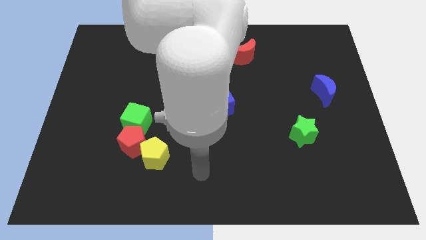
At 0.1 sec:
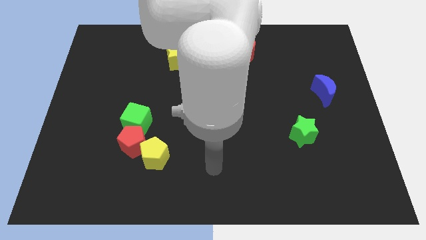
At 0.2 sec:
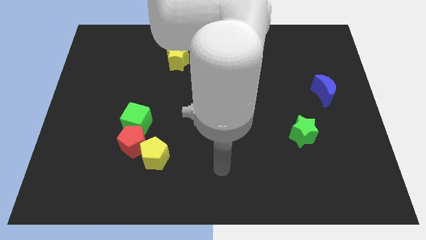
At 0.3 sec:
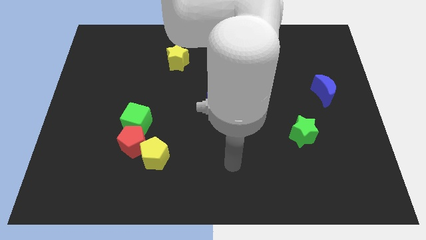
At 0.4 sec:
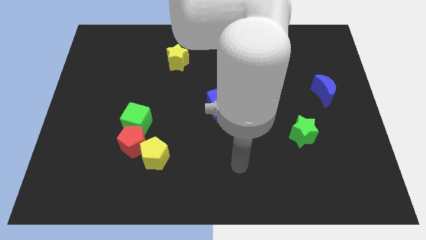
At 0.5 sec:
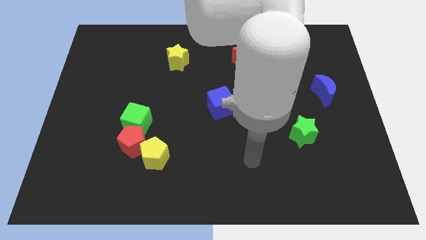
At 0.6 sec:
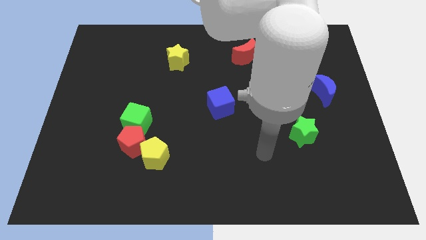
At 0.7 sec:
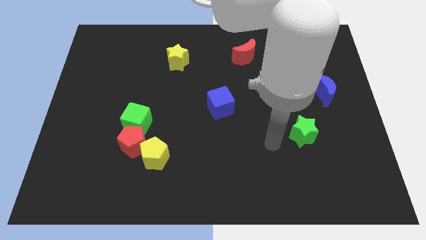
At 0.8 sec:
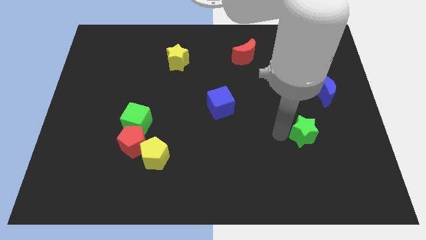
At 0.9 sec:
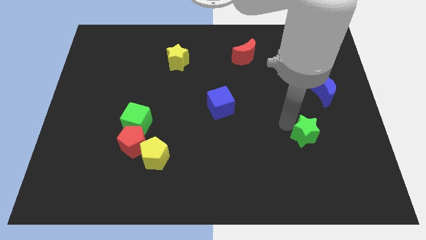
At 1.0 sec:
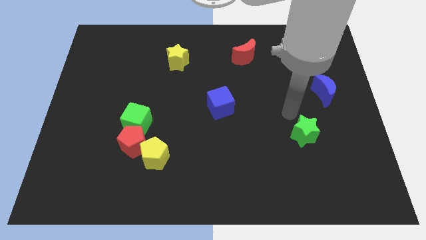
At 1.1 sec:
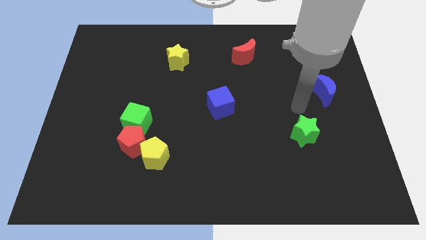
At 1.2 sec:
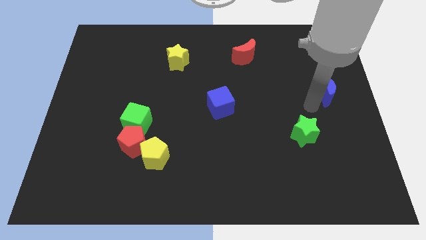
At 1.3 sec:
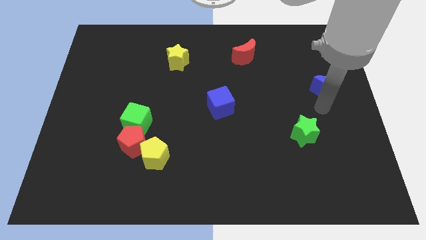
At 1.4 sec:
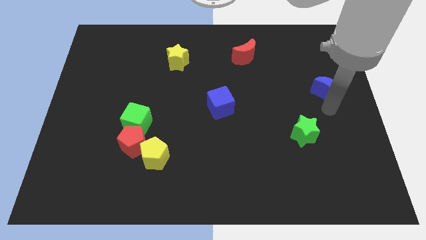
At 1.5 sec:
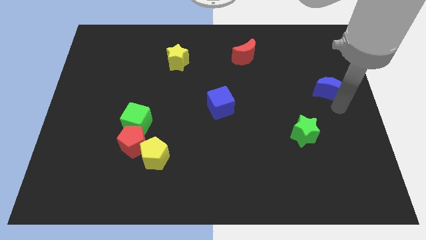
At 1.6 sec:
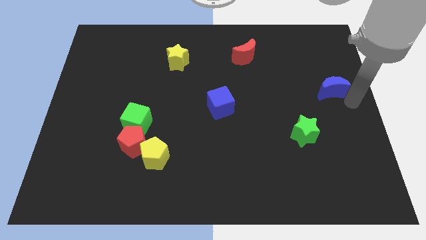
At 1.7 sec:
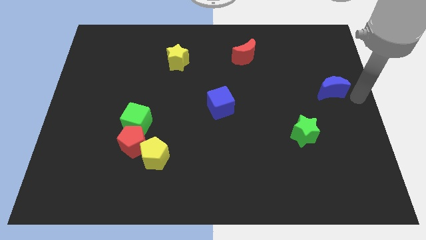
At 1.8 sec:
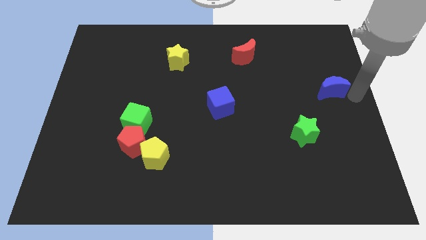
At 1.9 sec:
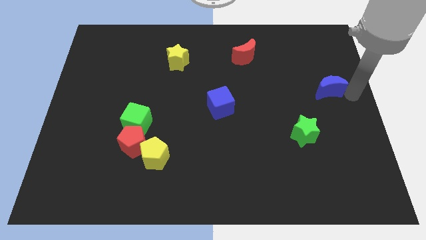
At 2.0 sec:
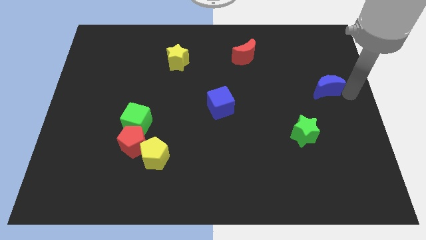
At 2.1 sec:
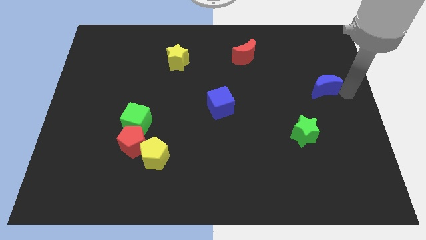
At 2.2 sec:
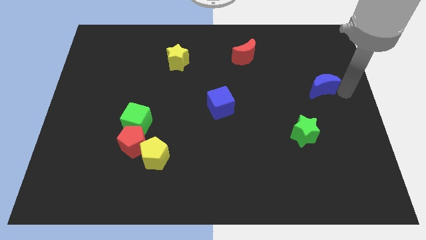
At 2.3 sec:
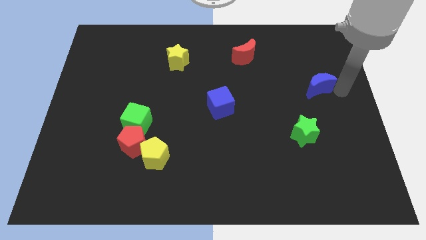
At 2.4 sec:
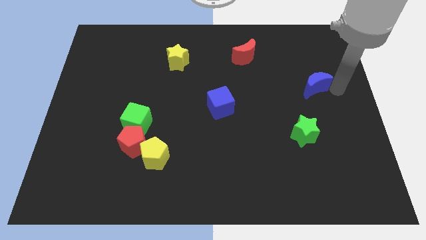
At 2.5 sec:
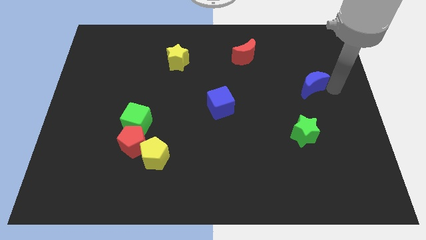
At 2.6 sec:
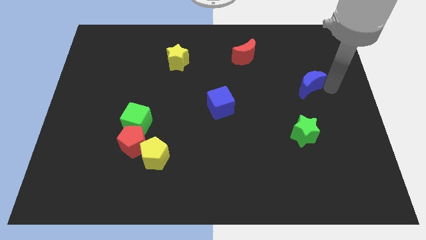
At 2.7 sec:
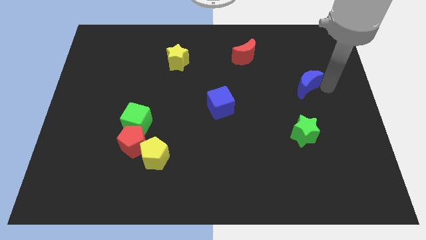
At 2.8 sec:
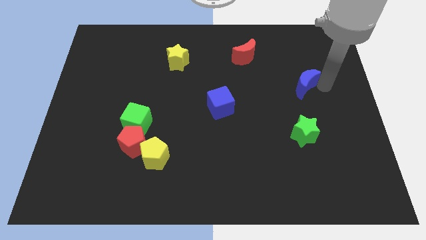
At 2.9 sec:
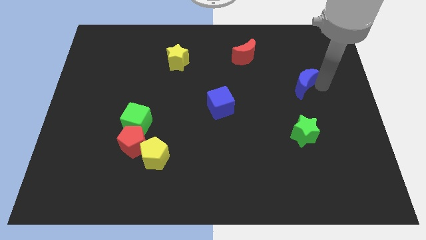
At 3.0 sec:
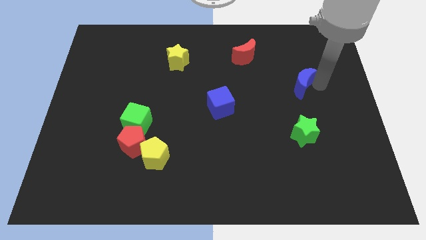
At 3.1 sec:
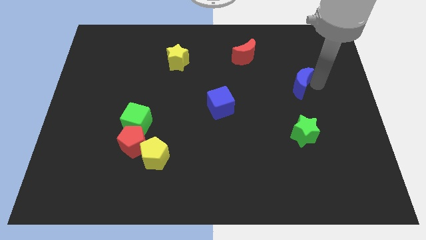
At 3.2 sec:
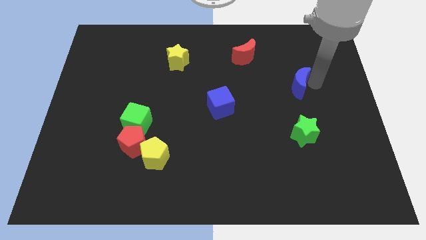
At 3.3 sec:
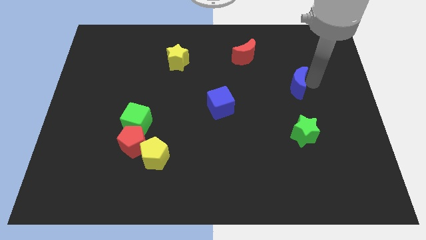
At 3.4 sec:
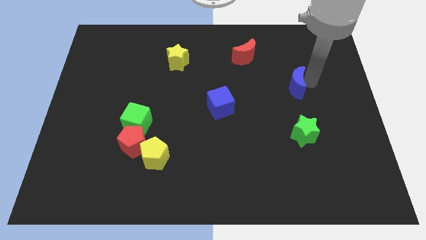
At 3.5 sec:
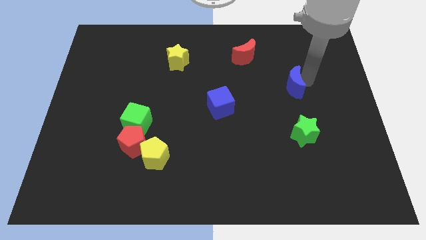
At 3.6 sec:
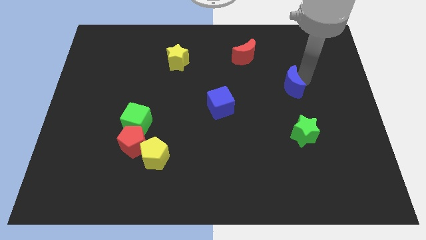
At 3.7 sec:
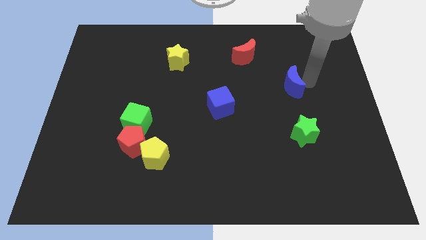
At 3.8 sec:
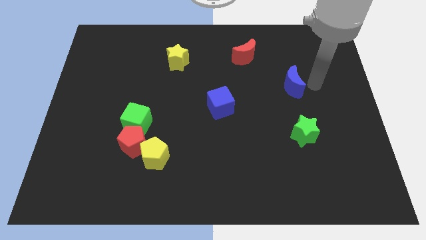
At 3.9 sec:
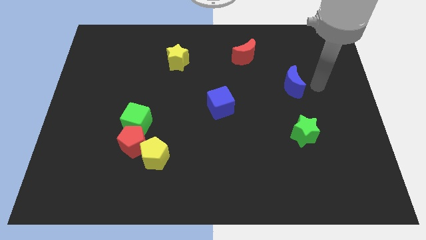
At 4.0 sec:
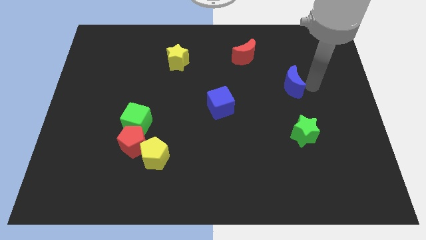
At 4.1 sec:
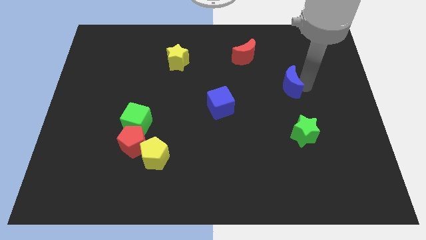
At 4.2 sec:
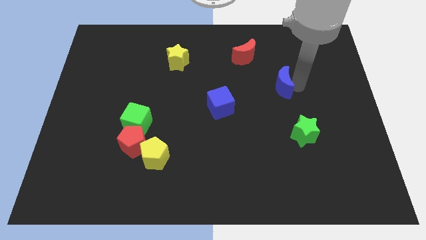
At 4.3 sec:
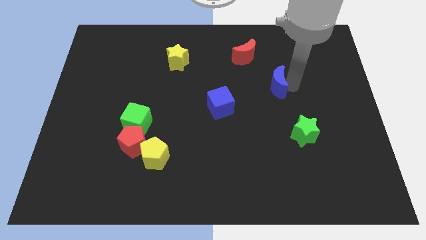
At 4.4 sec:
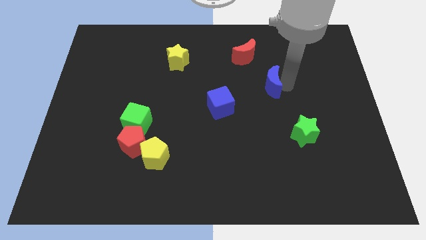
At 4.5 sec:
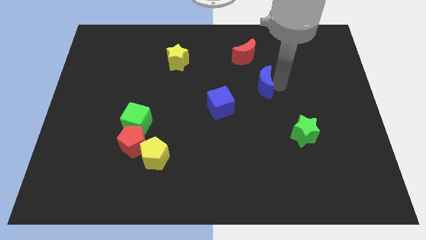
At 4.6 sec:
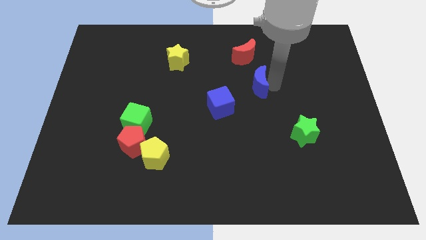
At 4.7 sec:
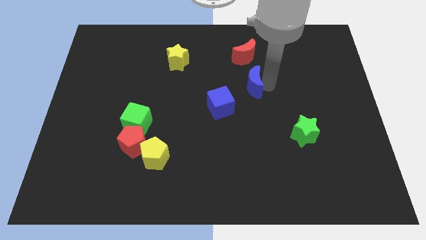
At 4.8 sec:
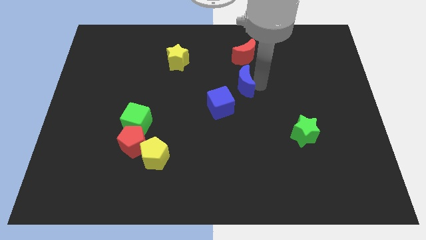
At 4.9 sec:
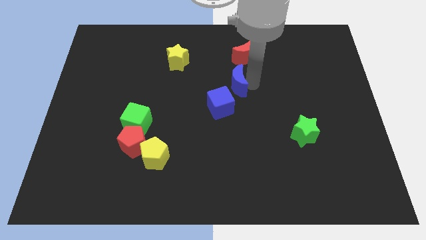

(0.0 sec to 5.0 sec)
move the blue moon to the left

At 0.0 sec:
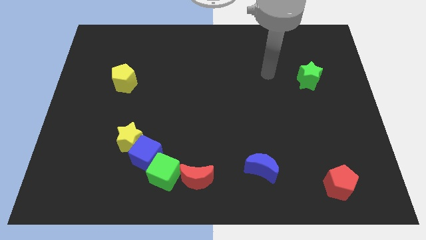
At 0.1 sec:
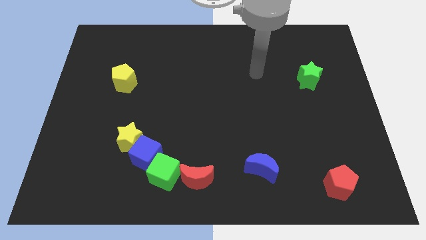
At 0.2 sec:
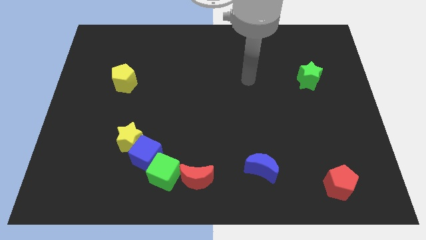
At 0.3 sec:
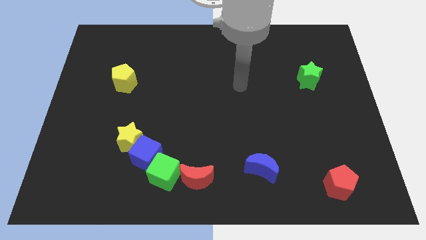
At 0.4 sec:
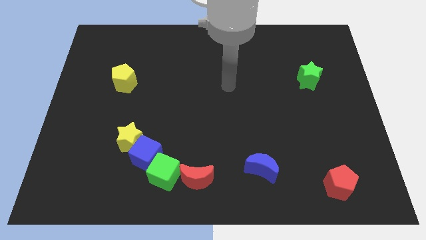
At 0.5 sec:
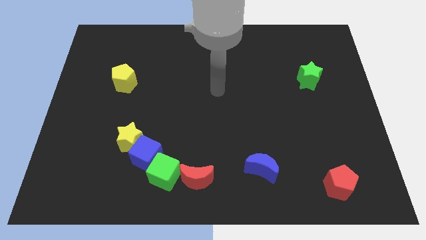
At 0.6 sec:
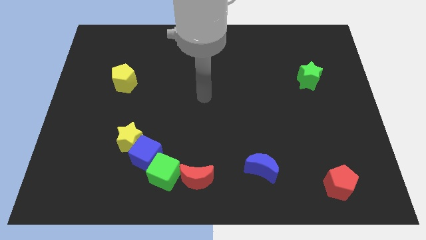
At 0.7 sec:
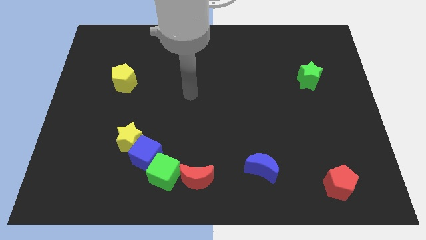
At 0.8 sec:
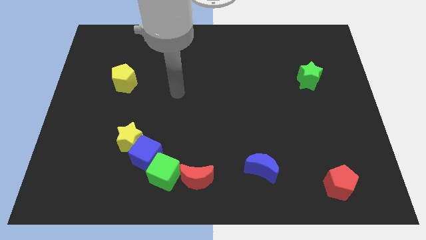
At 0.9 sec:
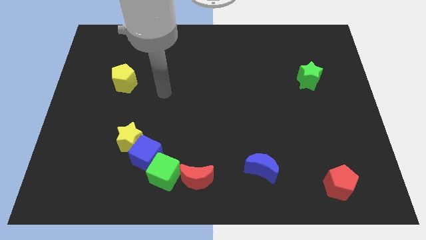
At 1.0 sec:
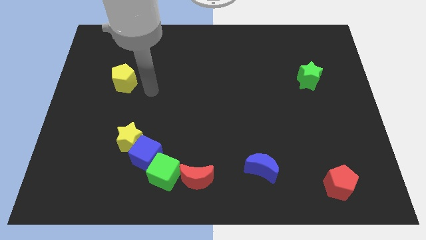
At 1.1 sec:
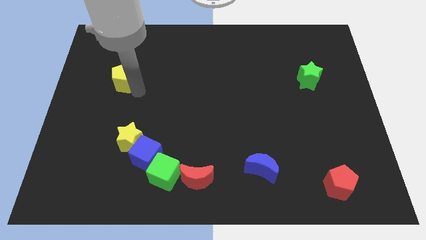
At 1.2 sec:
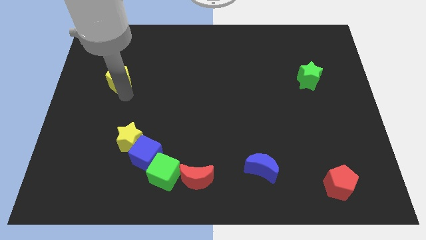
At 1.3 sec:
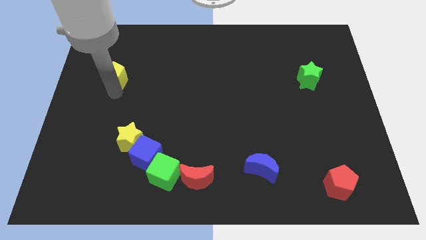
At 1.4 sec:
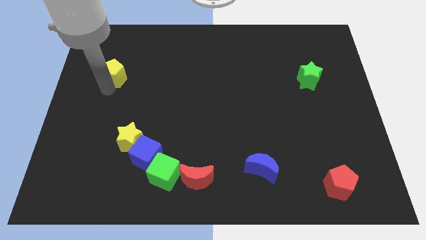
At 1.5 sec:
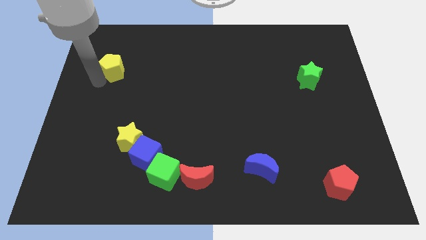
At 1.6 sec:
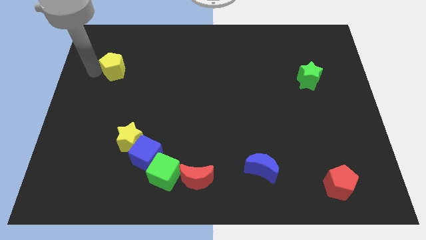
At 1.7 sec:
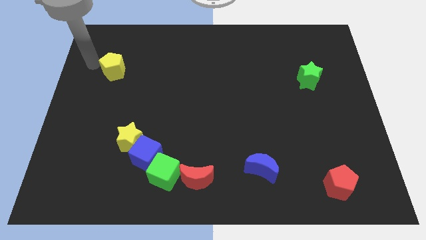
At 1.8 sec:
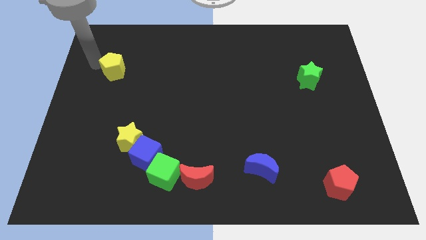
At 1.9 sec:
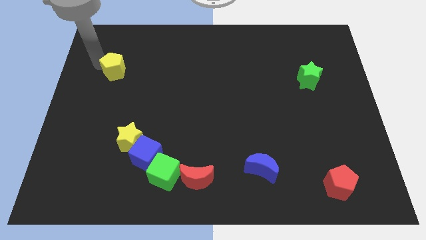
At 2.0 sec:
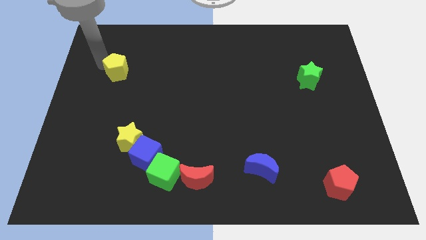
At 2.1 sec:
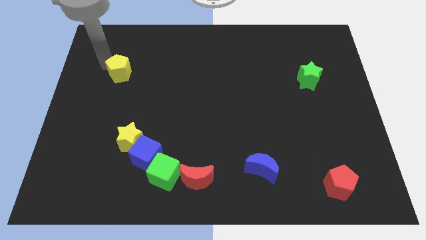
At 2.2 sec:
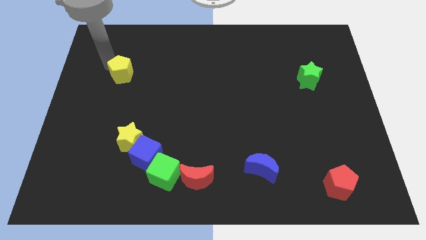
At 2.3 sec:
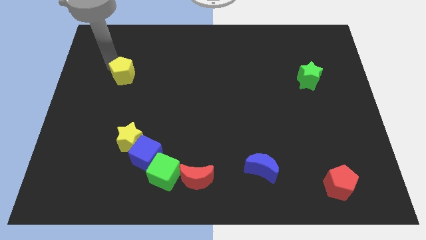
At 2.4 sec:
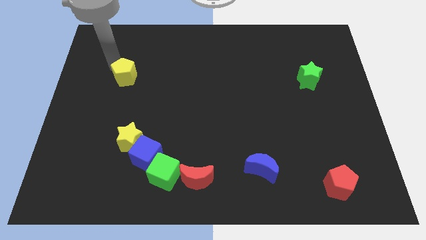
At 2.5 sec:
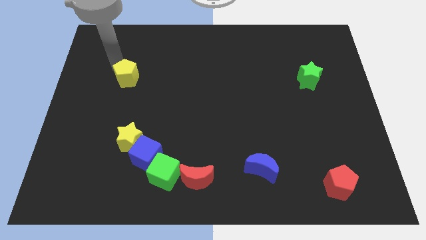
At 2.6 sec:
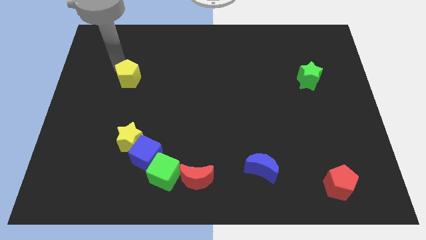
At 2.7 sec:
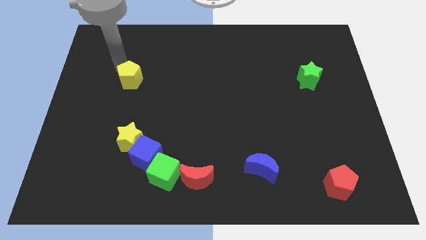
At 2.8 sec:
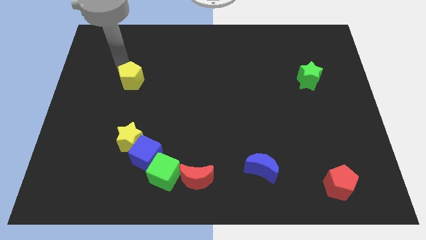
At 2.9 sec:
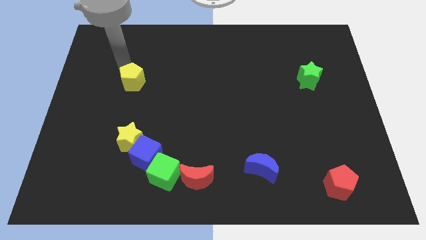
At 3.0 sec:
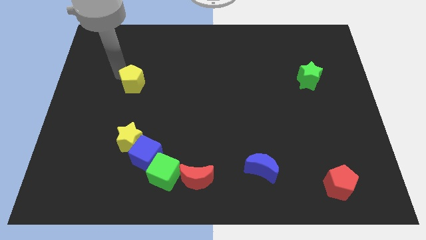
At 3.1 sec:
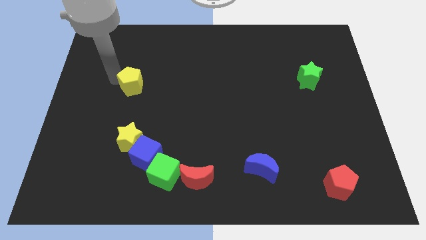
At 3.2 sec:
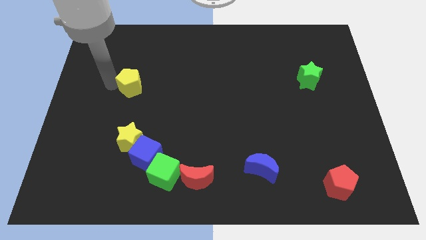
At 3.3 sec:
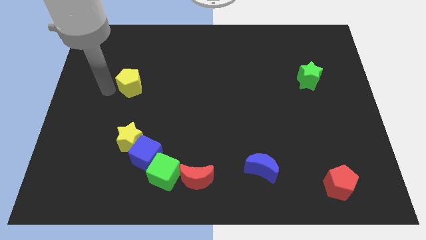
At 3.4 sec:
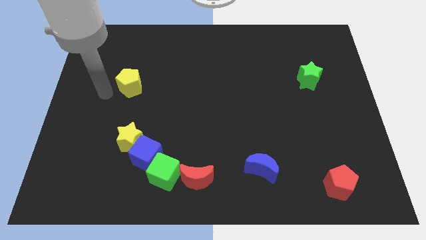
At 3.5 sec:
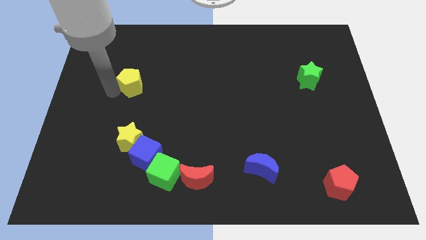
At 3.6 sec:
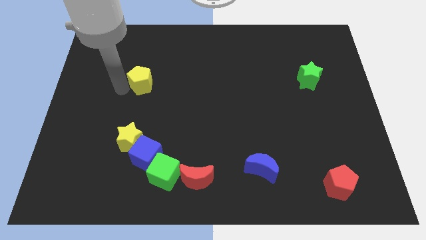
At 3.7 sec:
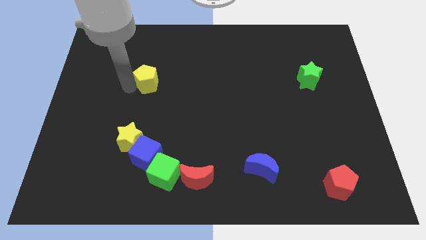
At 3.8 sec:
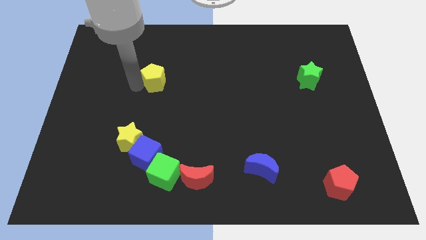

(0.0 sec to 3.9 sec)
slightly move the yellow pentagon right
